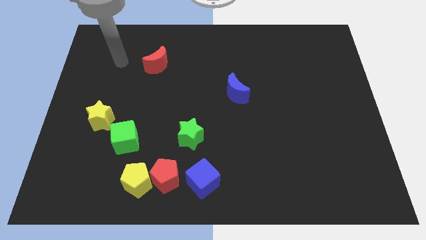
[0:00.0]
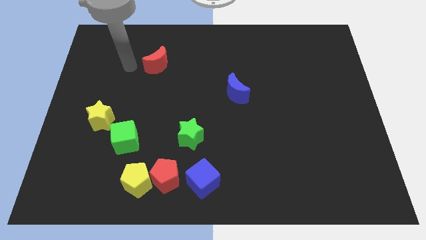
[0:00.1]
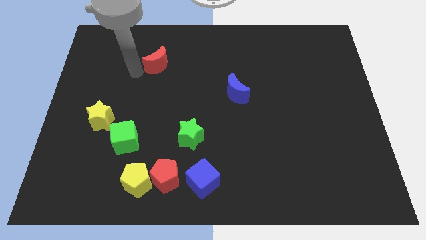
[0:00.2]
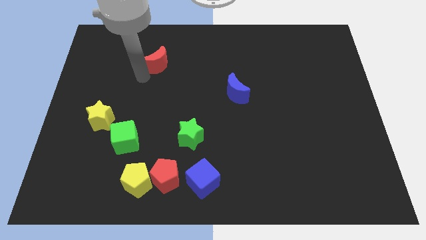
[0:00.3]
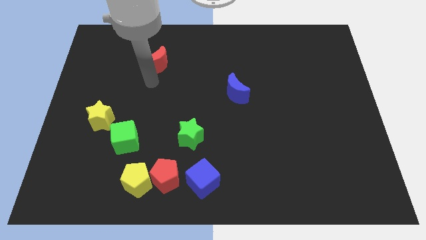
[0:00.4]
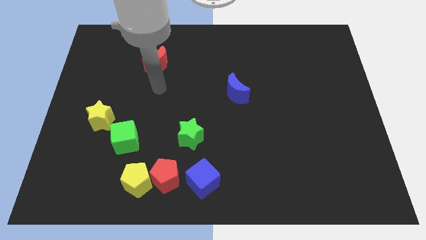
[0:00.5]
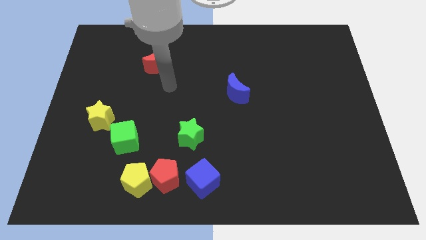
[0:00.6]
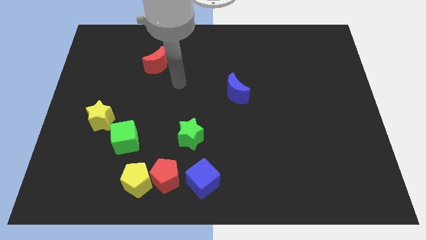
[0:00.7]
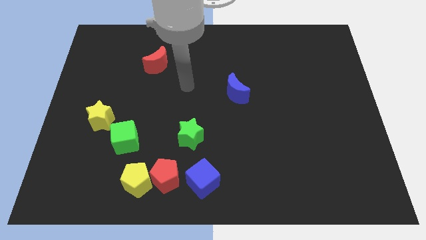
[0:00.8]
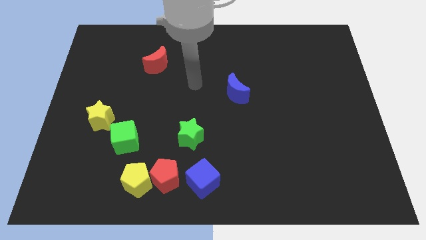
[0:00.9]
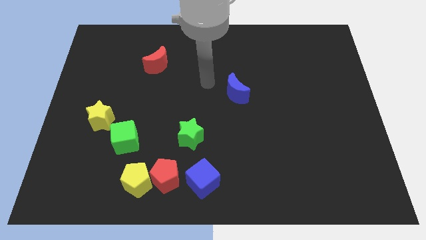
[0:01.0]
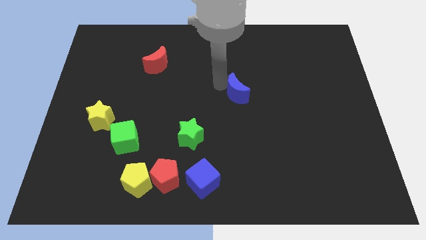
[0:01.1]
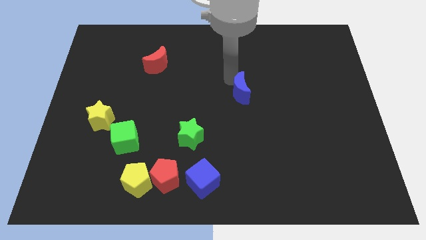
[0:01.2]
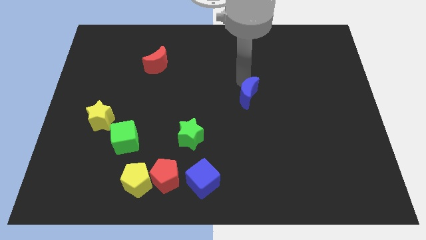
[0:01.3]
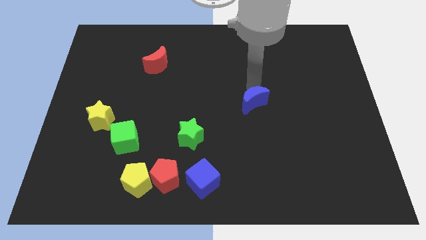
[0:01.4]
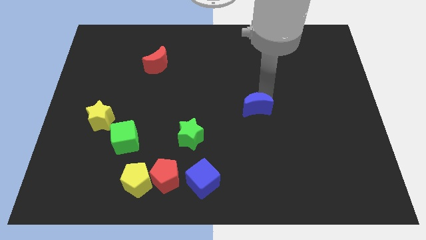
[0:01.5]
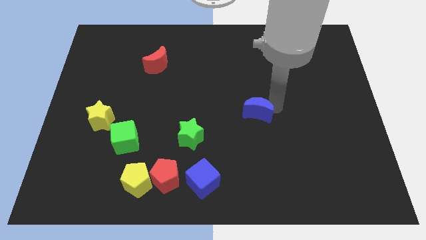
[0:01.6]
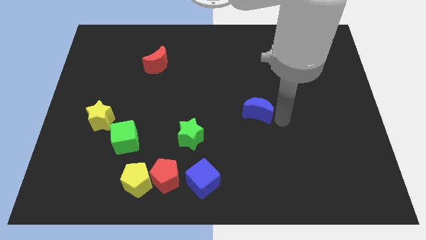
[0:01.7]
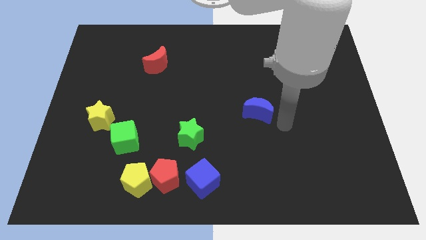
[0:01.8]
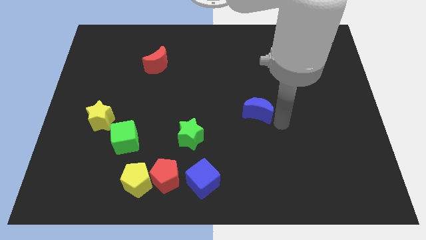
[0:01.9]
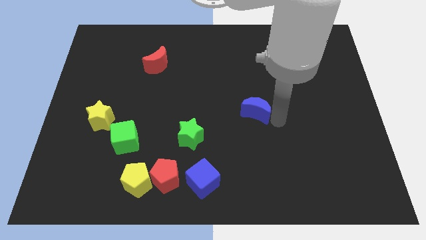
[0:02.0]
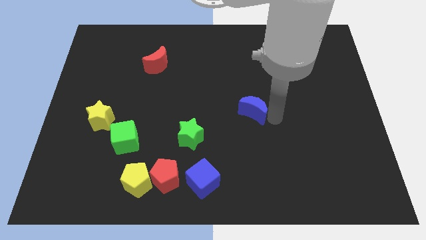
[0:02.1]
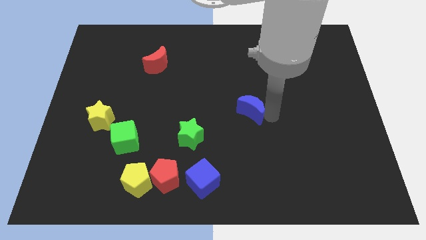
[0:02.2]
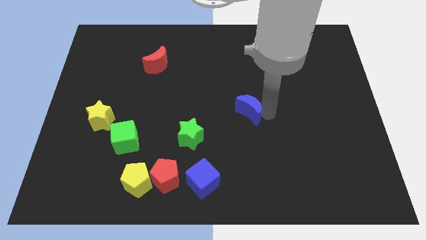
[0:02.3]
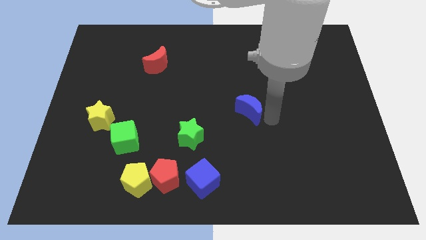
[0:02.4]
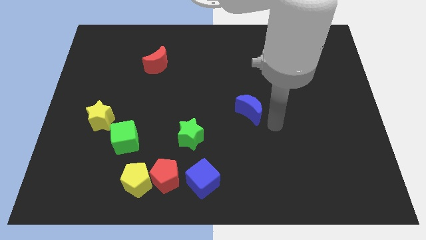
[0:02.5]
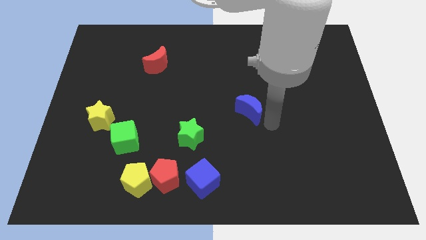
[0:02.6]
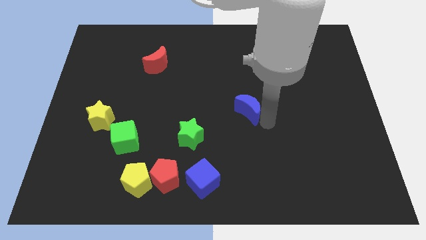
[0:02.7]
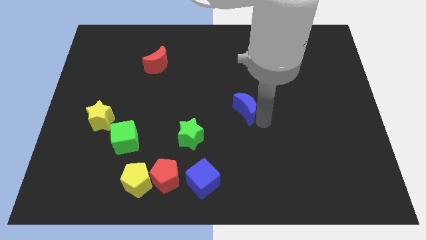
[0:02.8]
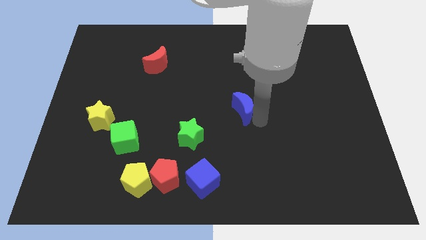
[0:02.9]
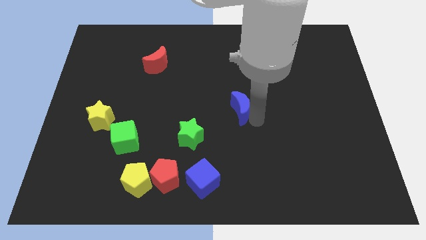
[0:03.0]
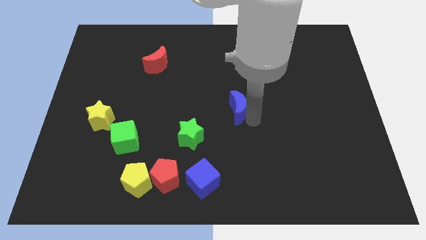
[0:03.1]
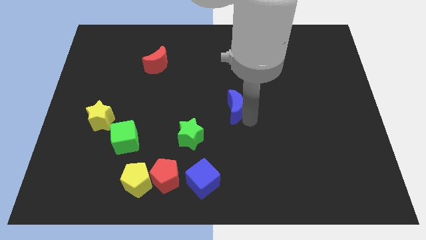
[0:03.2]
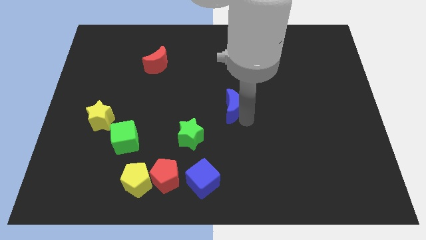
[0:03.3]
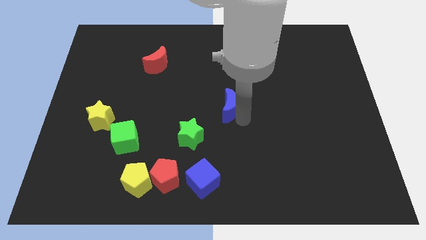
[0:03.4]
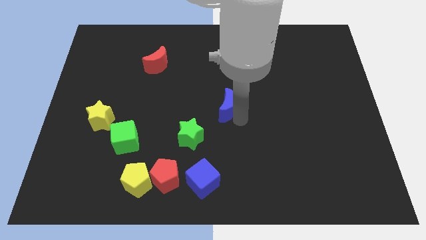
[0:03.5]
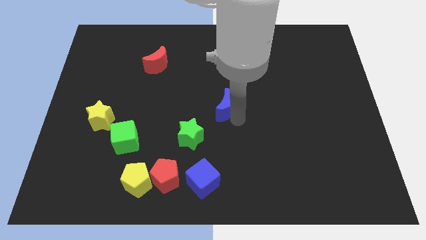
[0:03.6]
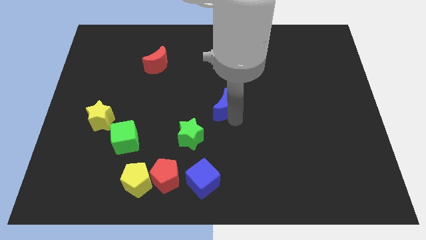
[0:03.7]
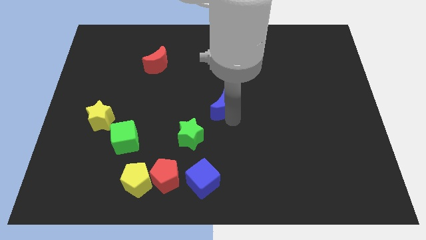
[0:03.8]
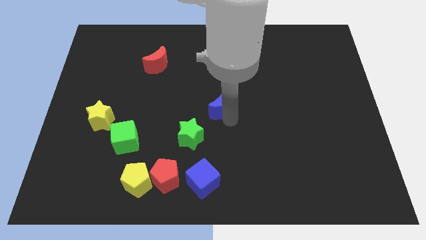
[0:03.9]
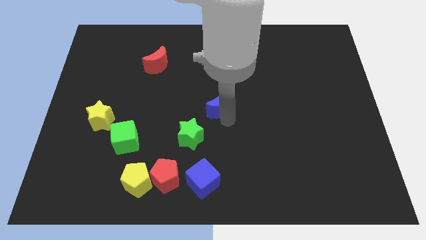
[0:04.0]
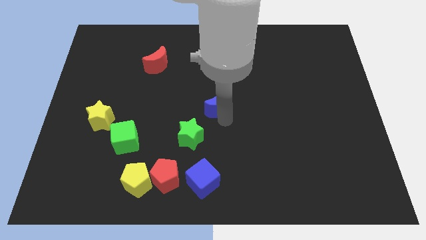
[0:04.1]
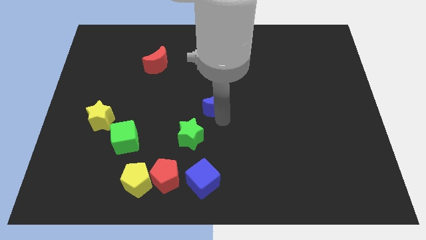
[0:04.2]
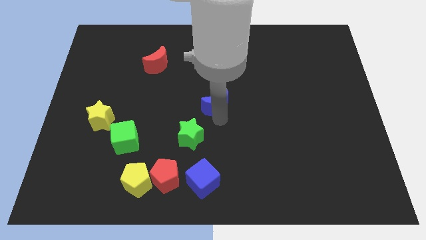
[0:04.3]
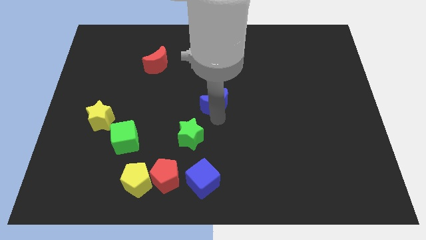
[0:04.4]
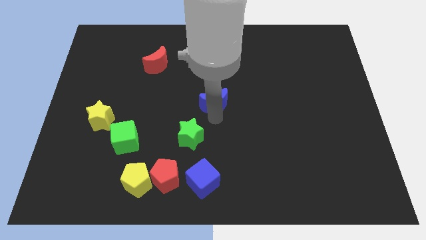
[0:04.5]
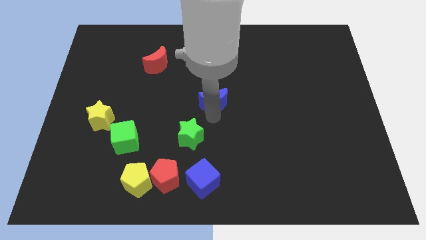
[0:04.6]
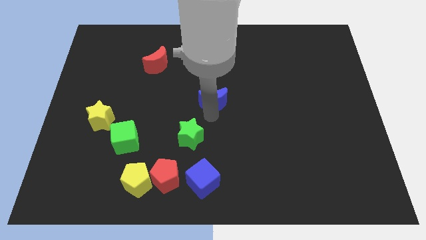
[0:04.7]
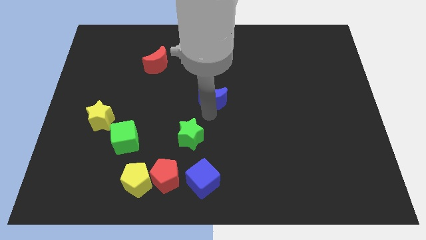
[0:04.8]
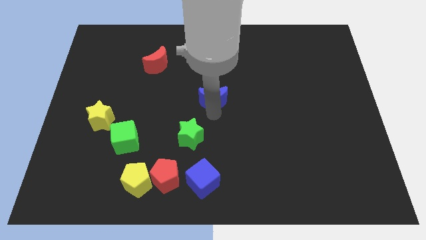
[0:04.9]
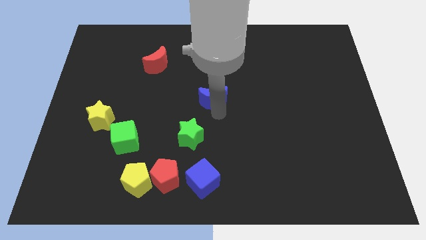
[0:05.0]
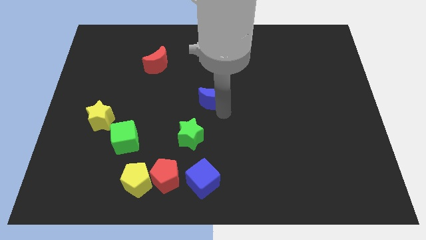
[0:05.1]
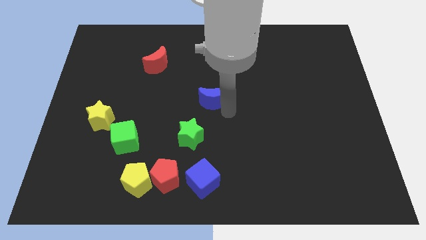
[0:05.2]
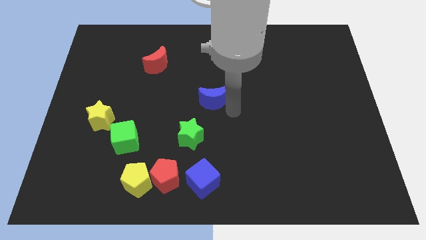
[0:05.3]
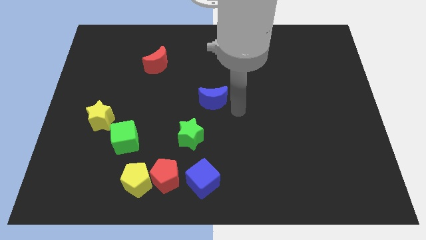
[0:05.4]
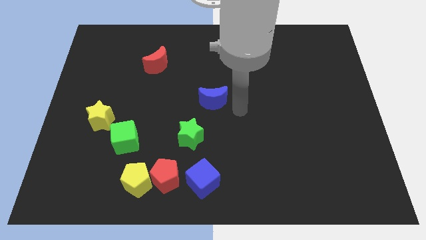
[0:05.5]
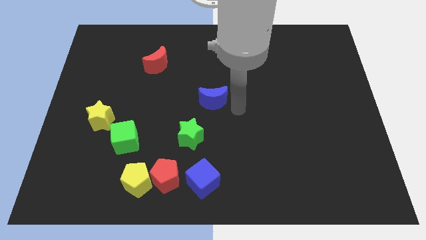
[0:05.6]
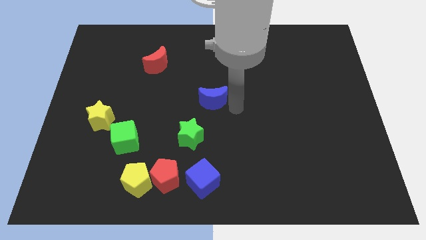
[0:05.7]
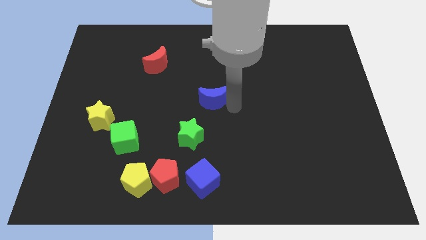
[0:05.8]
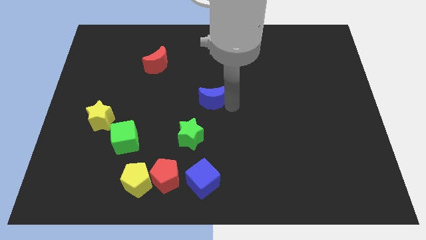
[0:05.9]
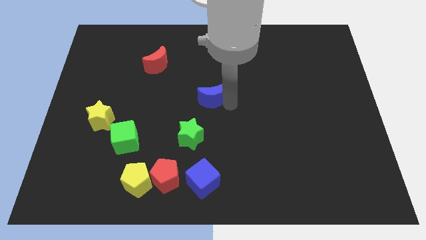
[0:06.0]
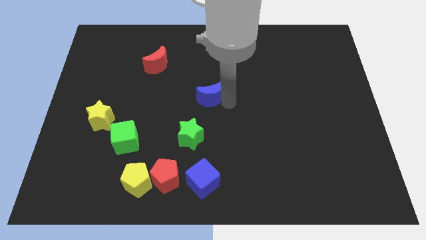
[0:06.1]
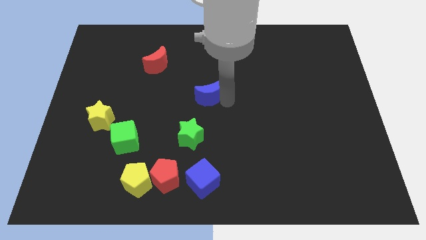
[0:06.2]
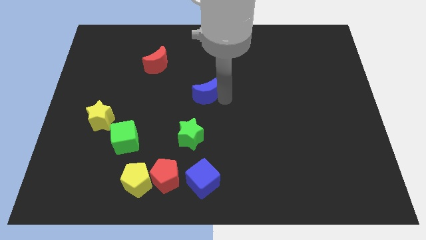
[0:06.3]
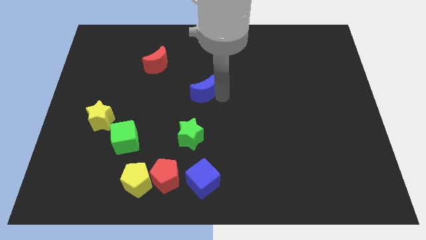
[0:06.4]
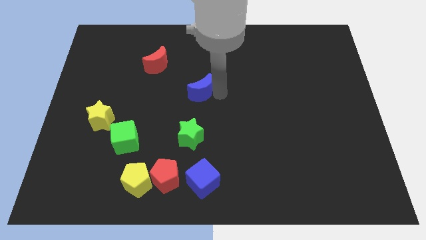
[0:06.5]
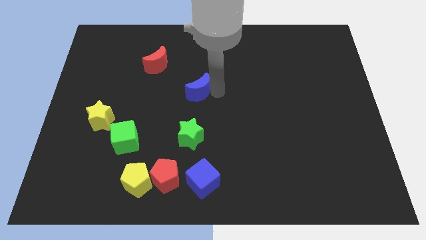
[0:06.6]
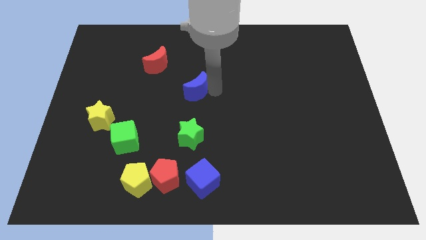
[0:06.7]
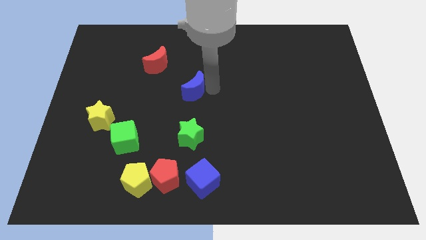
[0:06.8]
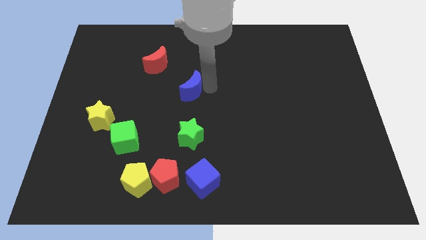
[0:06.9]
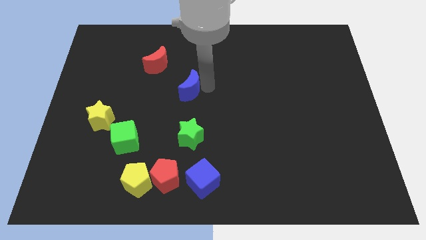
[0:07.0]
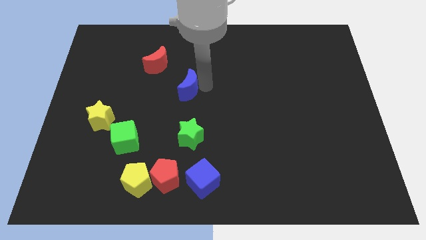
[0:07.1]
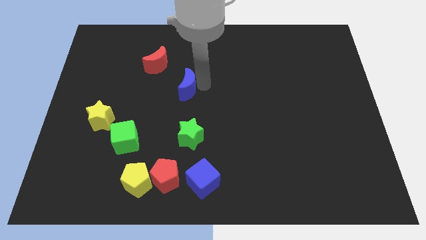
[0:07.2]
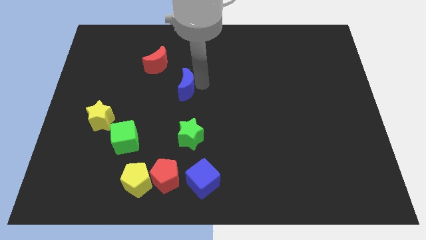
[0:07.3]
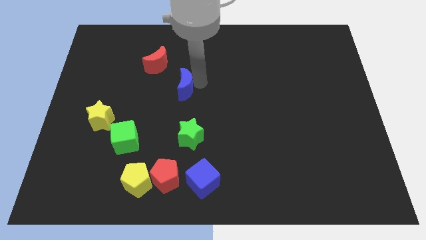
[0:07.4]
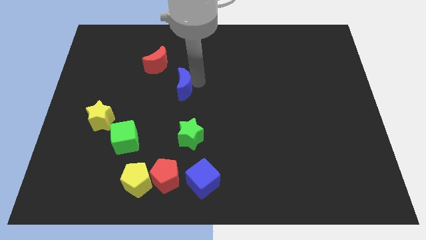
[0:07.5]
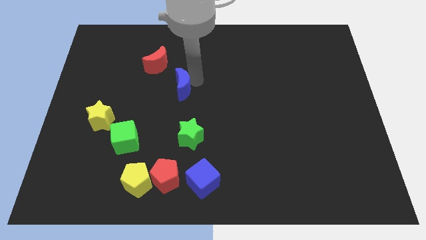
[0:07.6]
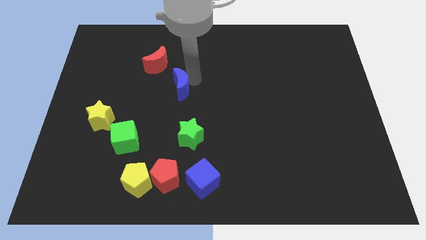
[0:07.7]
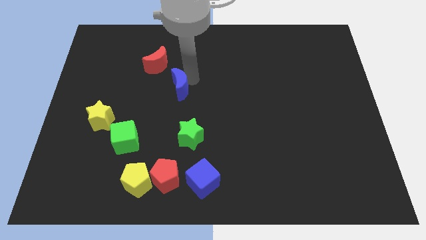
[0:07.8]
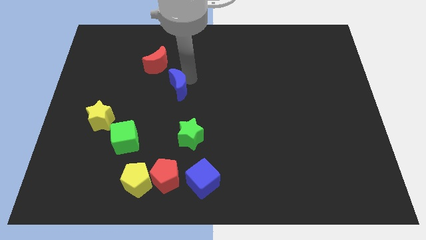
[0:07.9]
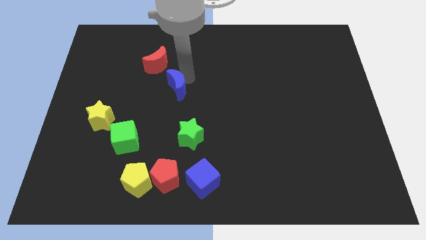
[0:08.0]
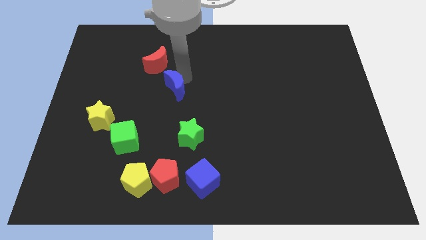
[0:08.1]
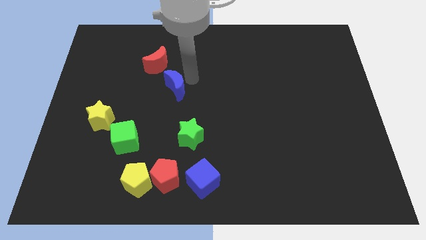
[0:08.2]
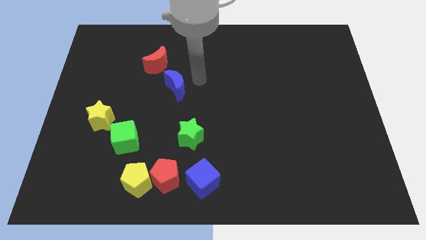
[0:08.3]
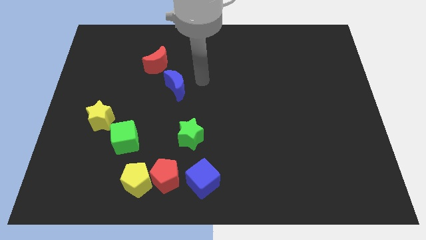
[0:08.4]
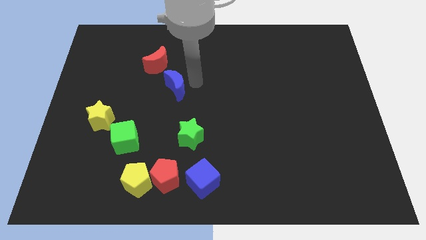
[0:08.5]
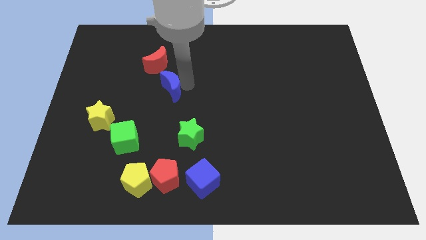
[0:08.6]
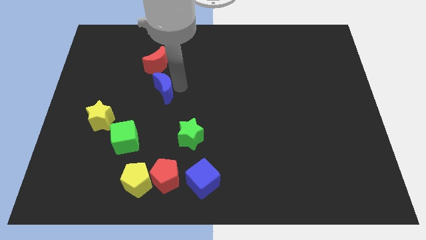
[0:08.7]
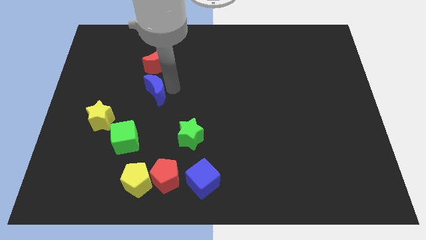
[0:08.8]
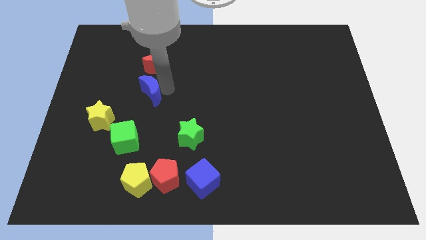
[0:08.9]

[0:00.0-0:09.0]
move the blue moon left
